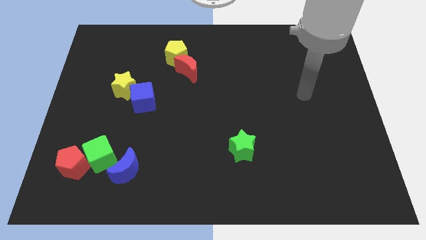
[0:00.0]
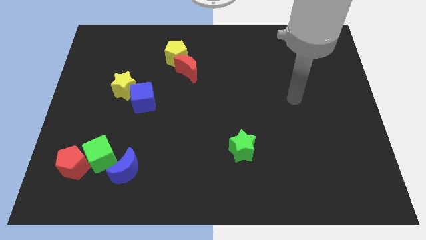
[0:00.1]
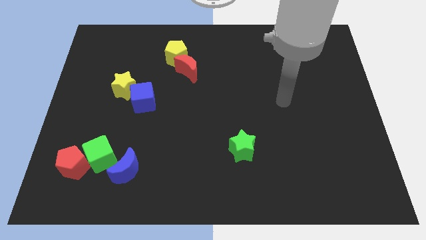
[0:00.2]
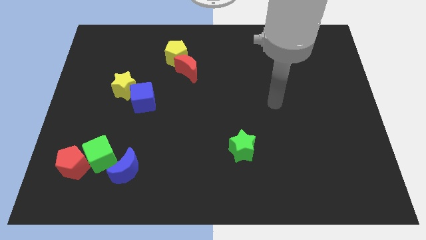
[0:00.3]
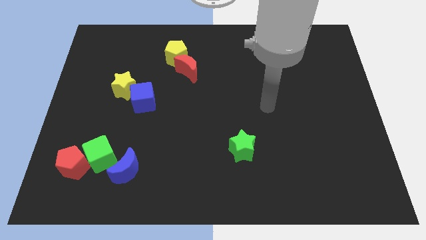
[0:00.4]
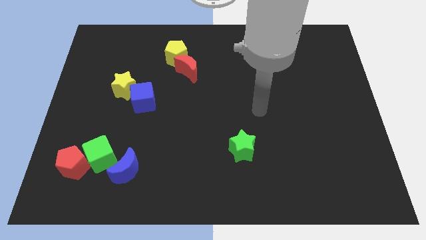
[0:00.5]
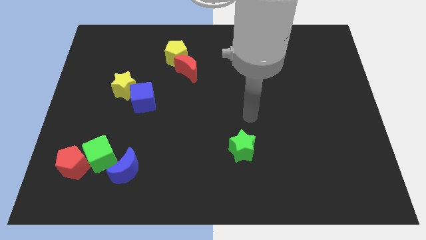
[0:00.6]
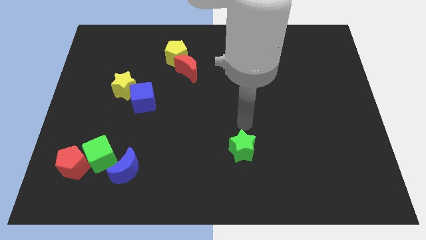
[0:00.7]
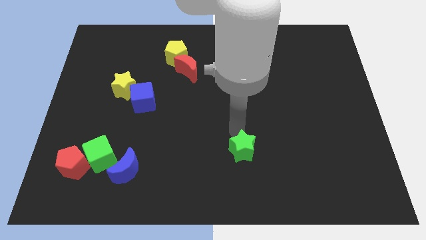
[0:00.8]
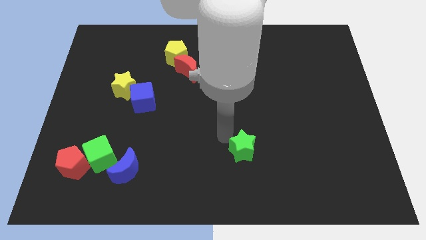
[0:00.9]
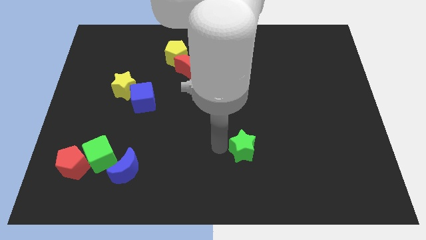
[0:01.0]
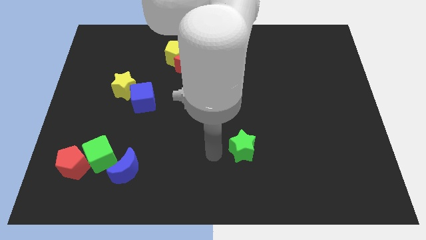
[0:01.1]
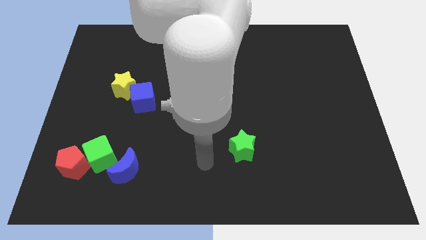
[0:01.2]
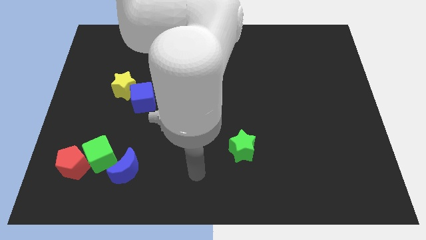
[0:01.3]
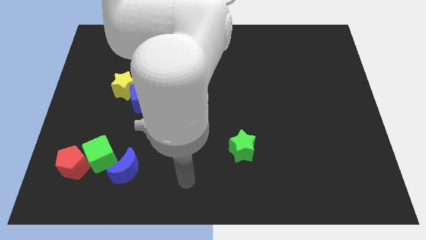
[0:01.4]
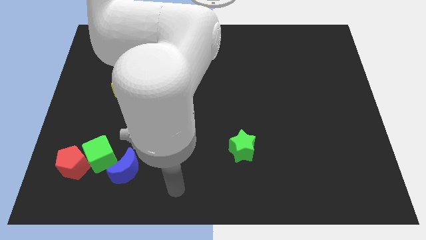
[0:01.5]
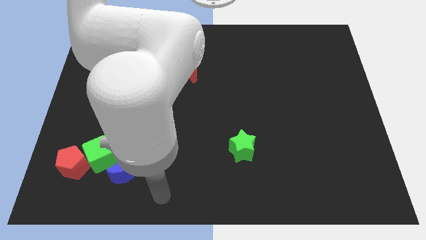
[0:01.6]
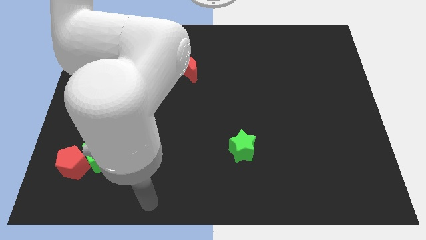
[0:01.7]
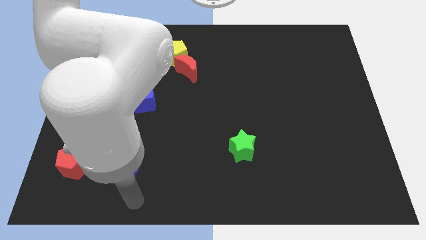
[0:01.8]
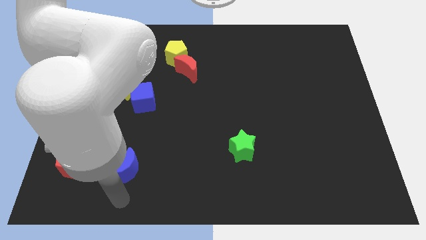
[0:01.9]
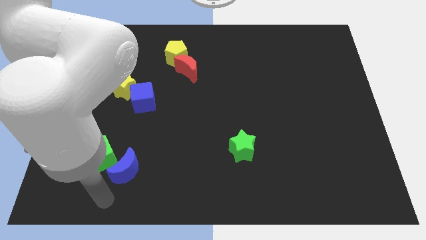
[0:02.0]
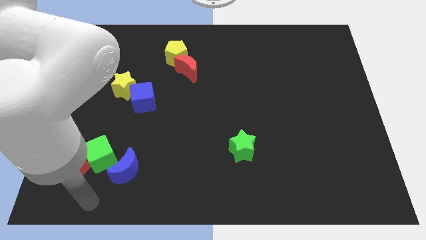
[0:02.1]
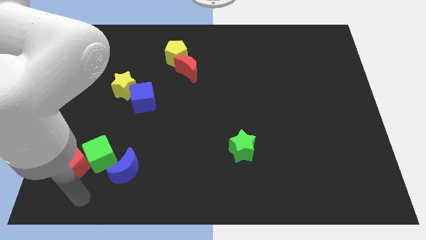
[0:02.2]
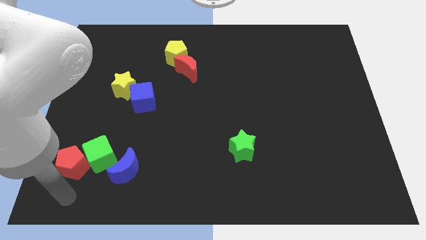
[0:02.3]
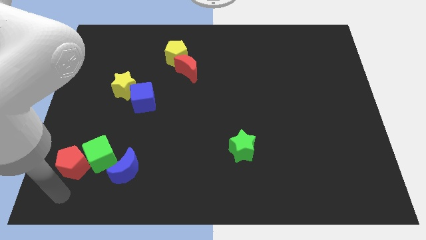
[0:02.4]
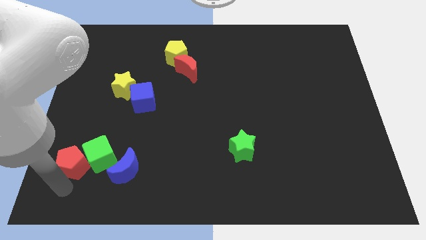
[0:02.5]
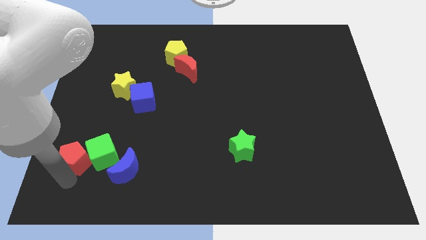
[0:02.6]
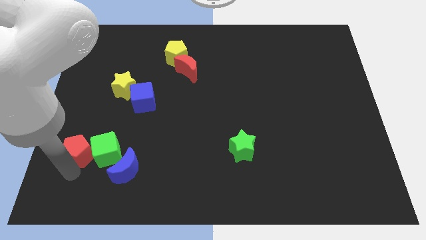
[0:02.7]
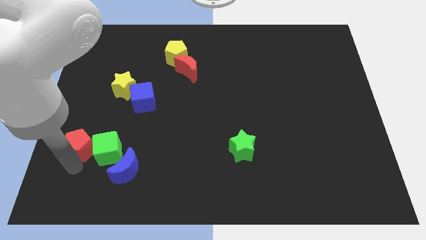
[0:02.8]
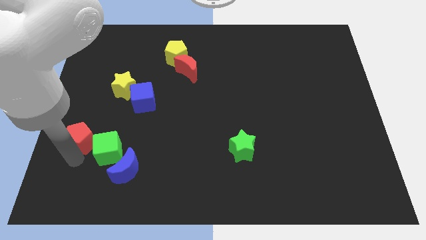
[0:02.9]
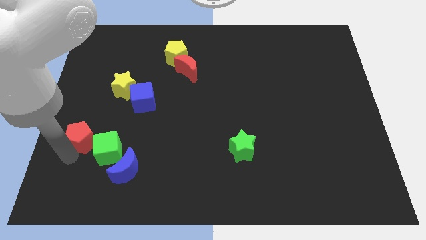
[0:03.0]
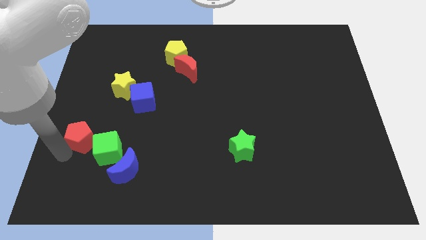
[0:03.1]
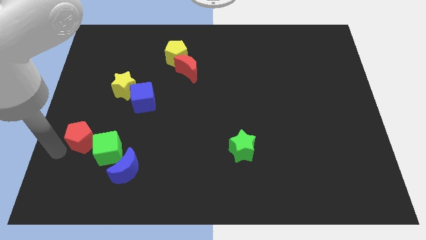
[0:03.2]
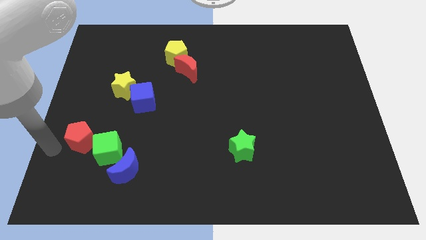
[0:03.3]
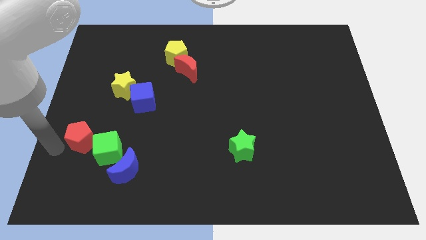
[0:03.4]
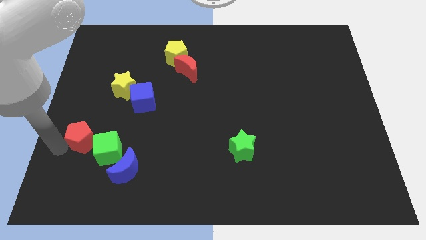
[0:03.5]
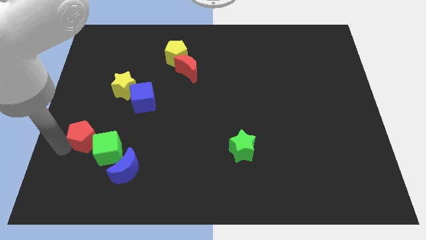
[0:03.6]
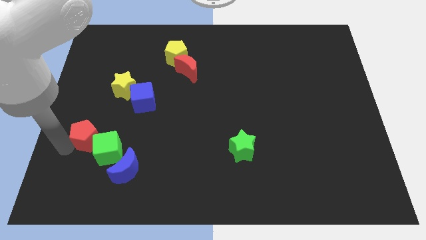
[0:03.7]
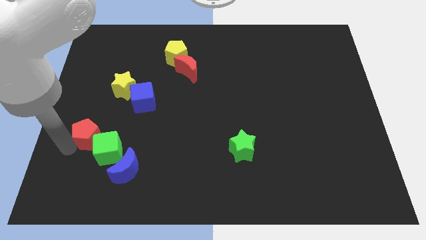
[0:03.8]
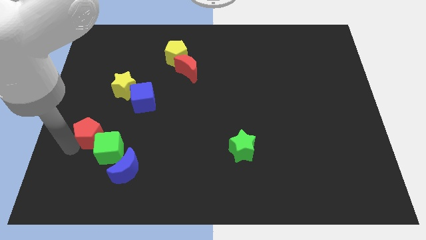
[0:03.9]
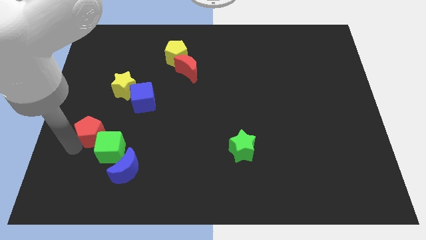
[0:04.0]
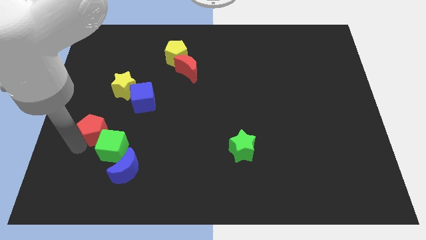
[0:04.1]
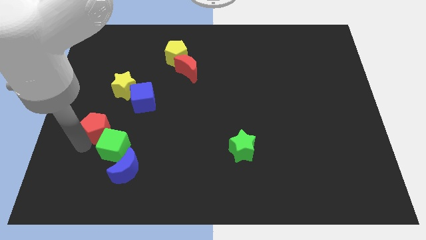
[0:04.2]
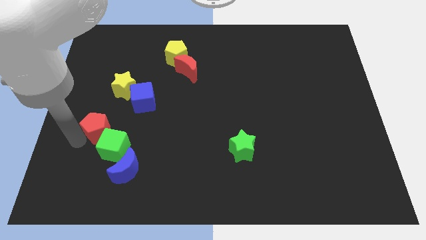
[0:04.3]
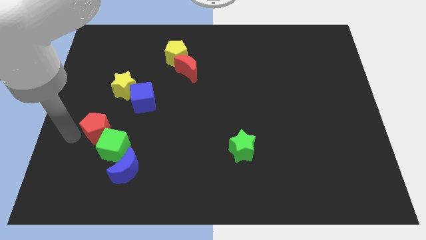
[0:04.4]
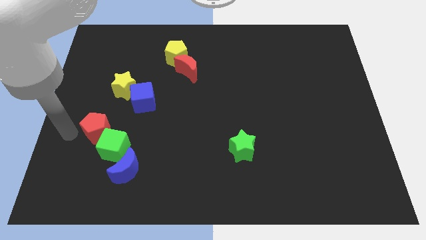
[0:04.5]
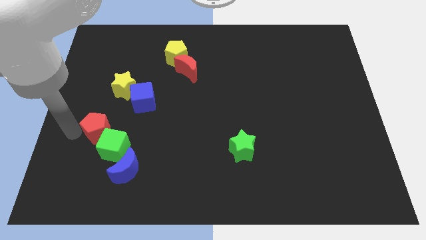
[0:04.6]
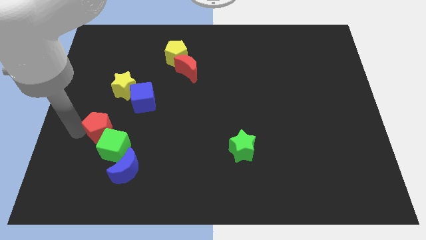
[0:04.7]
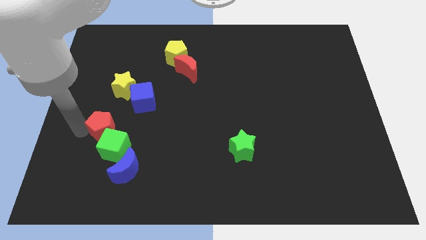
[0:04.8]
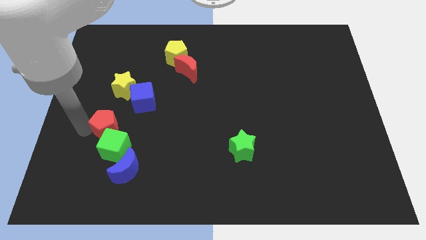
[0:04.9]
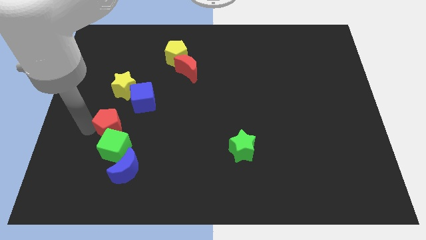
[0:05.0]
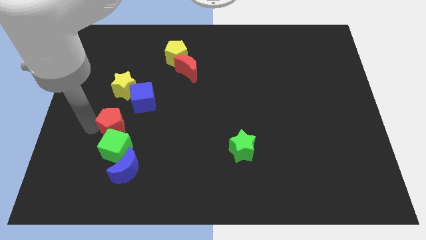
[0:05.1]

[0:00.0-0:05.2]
slide the red pentagon to the top of the blue moon

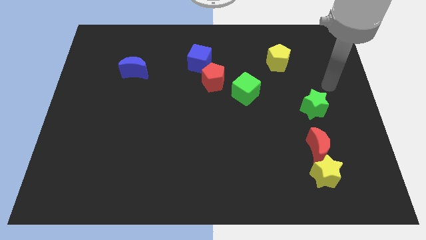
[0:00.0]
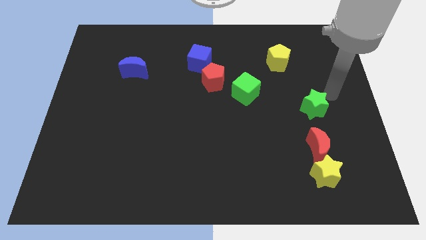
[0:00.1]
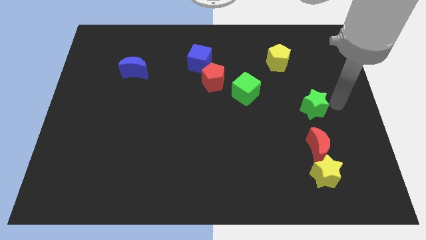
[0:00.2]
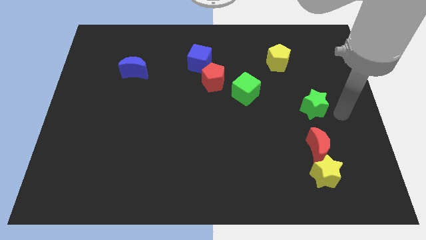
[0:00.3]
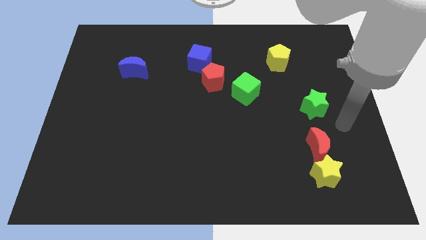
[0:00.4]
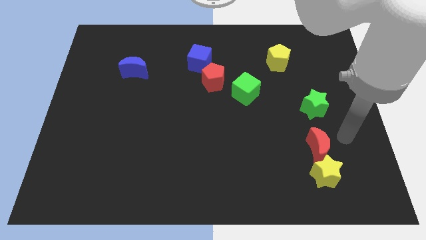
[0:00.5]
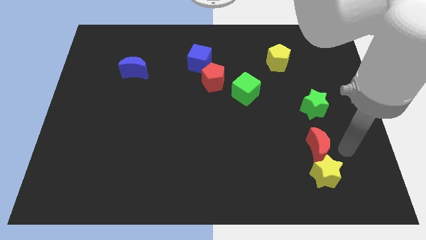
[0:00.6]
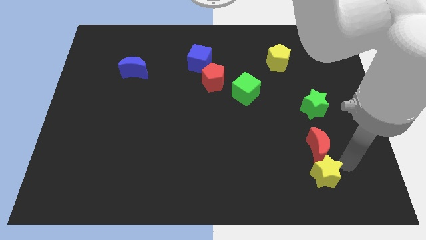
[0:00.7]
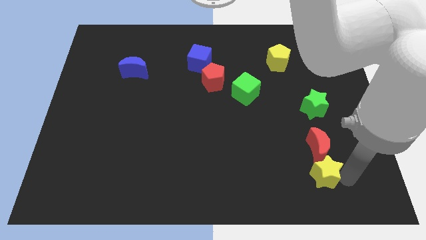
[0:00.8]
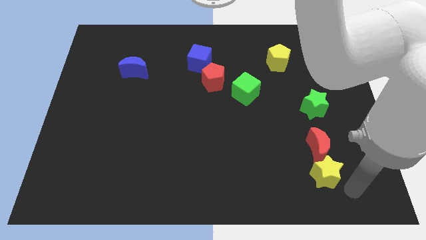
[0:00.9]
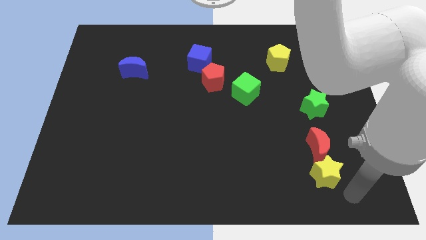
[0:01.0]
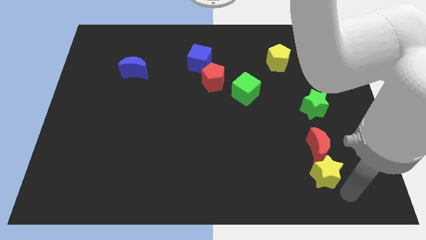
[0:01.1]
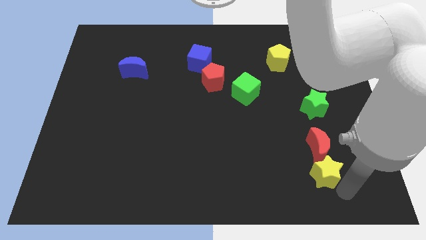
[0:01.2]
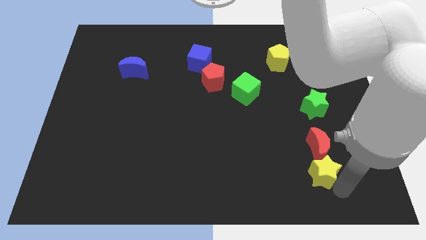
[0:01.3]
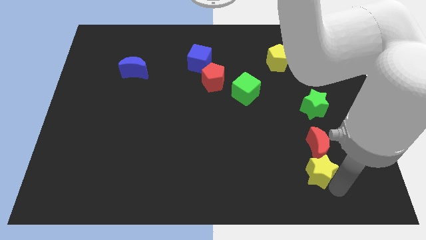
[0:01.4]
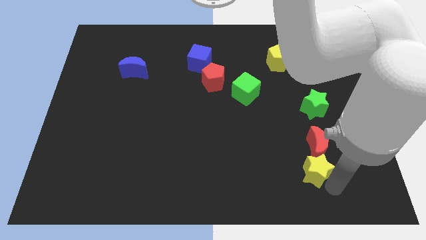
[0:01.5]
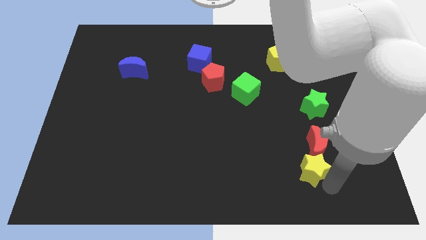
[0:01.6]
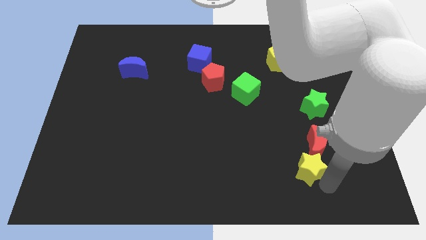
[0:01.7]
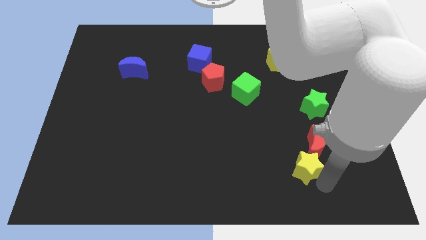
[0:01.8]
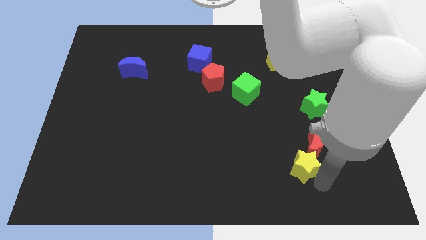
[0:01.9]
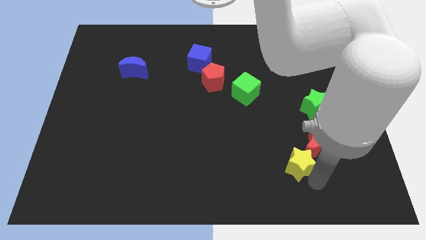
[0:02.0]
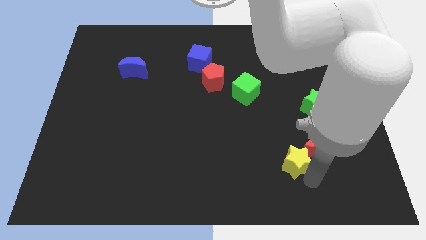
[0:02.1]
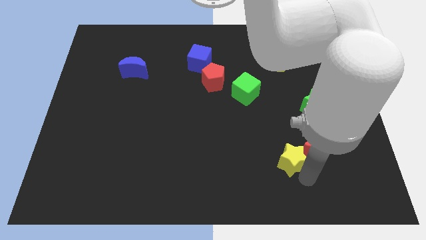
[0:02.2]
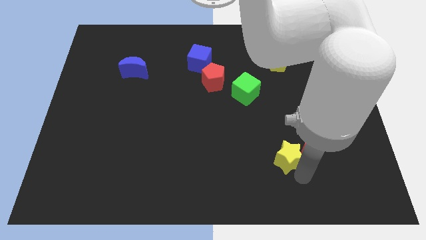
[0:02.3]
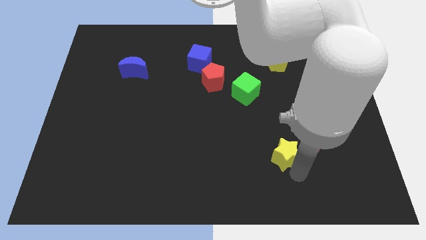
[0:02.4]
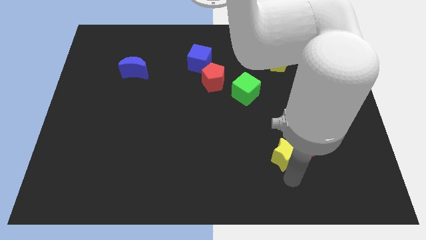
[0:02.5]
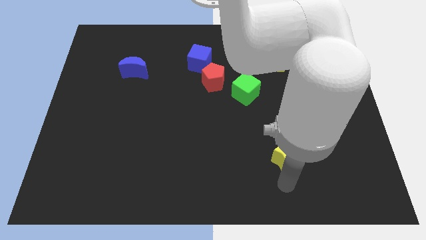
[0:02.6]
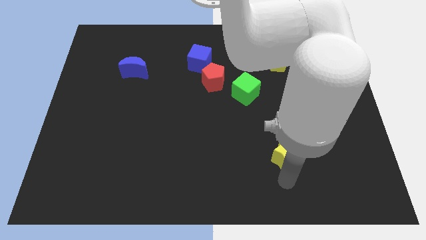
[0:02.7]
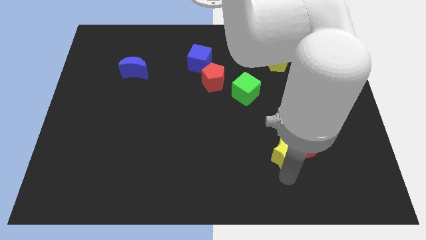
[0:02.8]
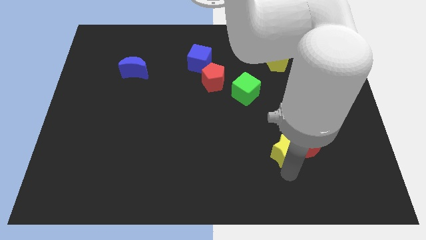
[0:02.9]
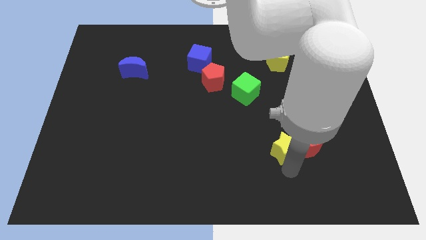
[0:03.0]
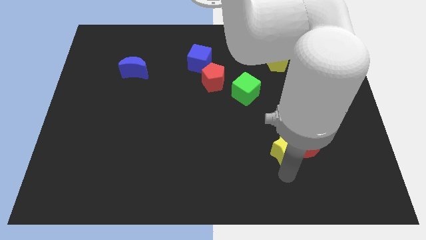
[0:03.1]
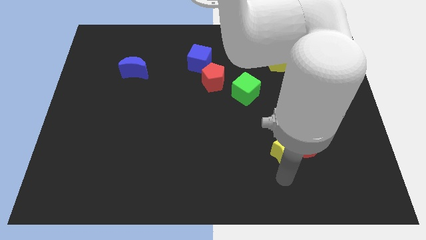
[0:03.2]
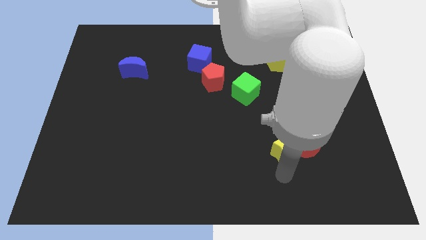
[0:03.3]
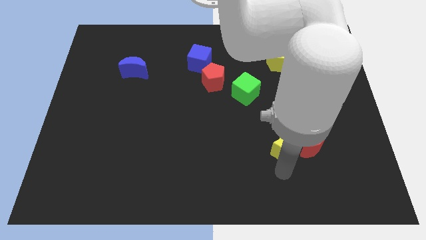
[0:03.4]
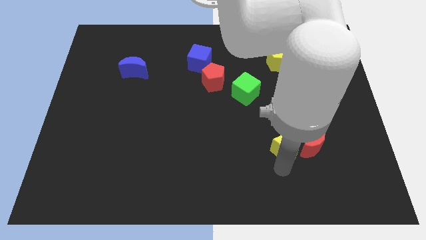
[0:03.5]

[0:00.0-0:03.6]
move the yellow star to the top left side of the red moon
